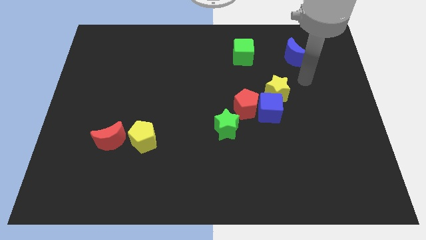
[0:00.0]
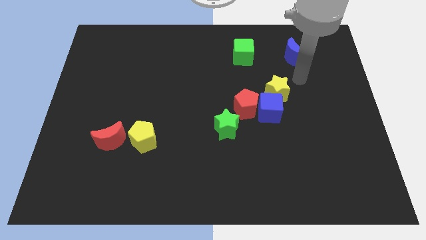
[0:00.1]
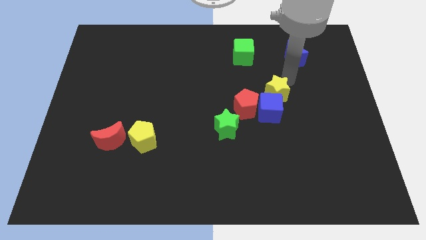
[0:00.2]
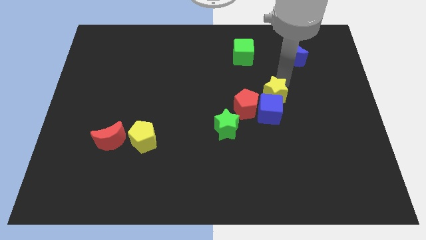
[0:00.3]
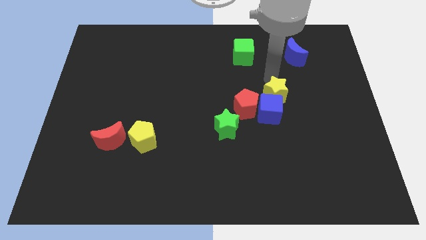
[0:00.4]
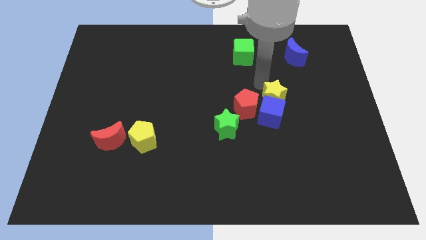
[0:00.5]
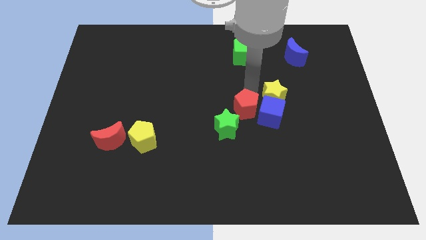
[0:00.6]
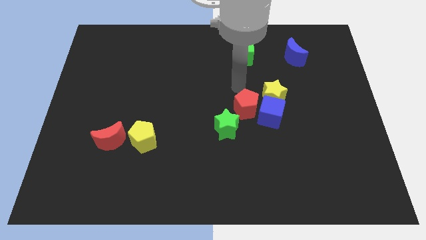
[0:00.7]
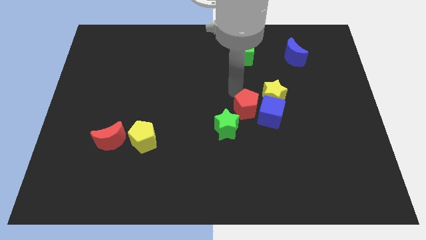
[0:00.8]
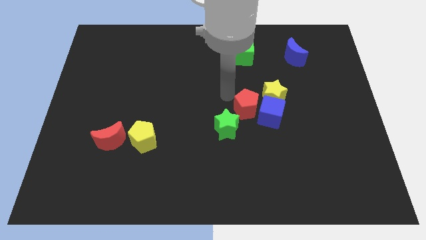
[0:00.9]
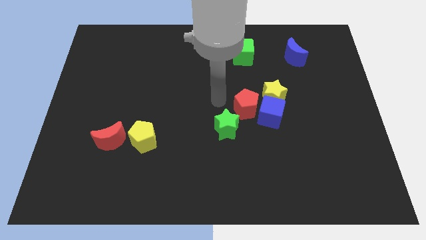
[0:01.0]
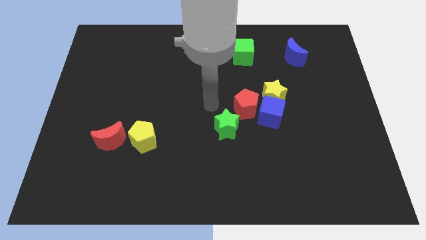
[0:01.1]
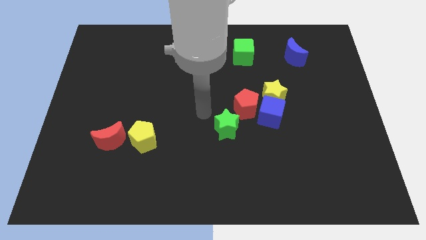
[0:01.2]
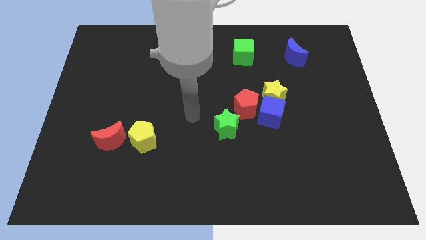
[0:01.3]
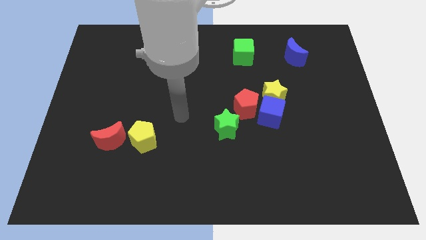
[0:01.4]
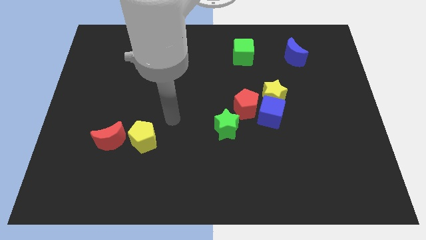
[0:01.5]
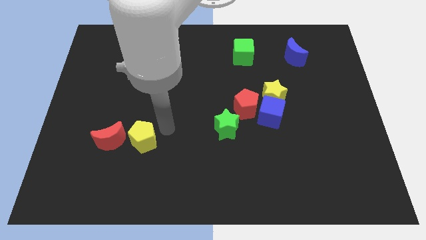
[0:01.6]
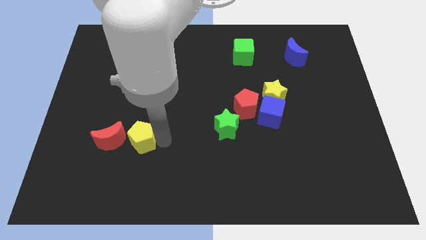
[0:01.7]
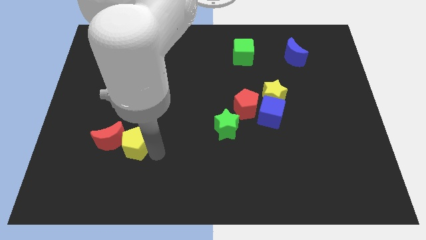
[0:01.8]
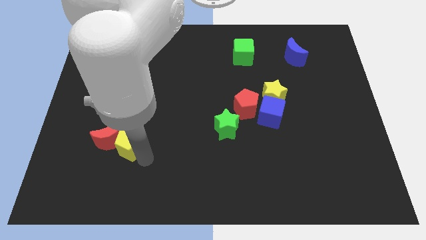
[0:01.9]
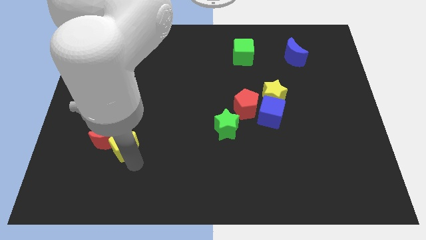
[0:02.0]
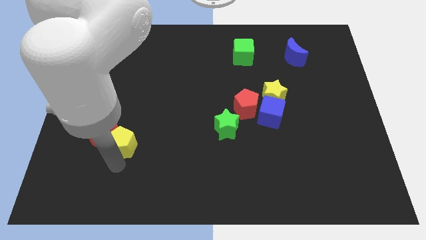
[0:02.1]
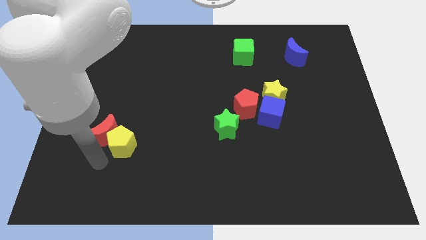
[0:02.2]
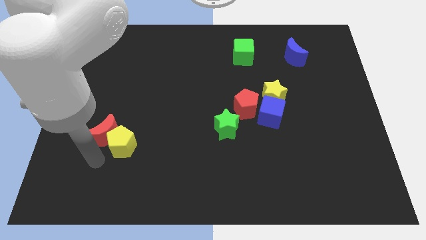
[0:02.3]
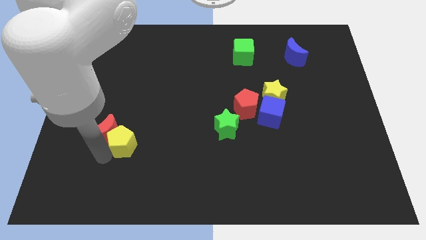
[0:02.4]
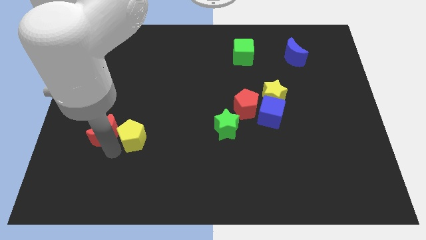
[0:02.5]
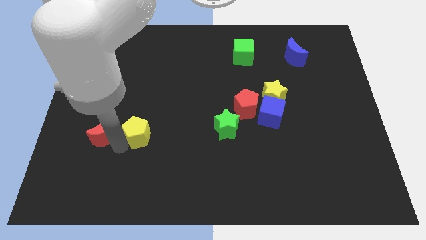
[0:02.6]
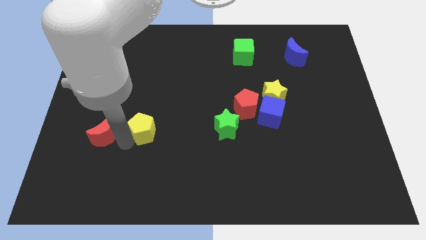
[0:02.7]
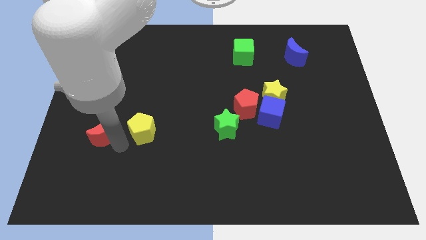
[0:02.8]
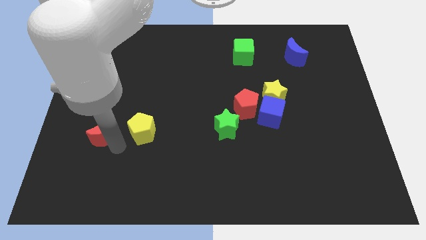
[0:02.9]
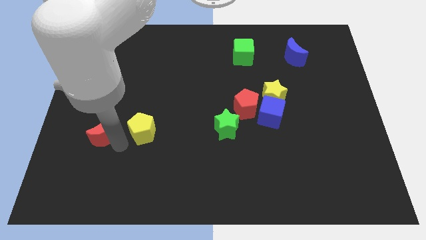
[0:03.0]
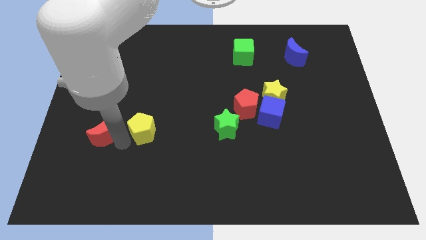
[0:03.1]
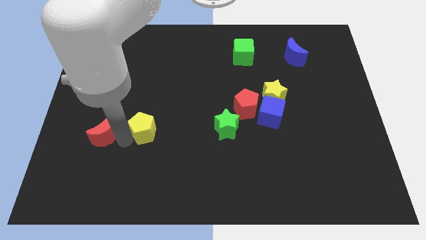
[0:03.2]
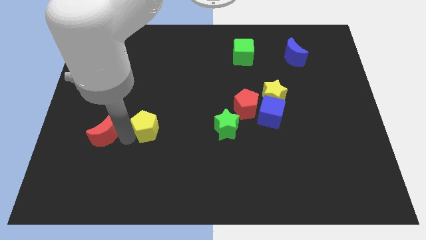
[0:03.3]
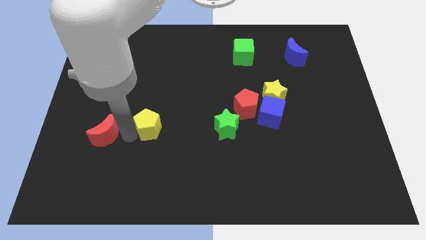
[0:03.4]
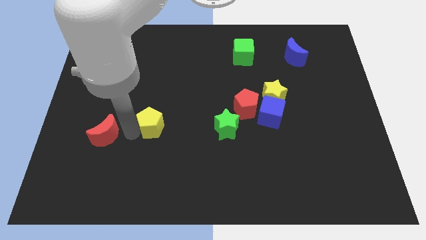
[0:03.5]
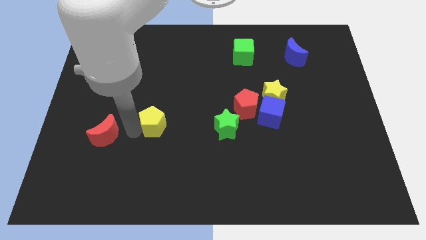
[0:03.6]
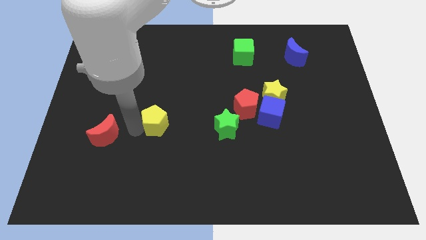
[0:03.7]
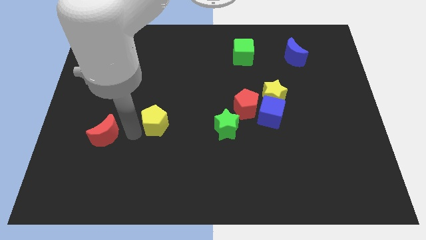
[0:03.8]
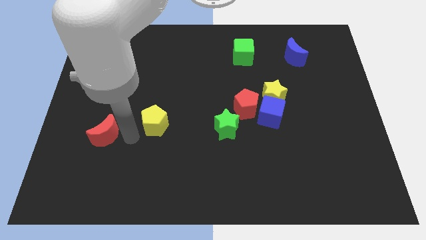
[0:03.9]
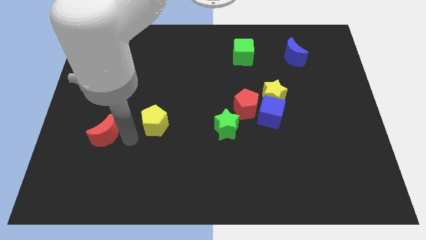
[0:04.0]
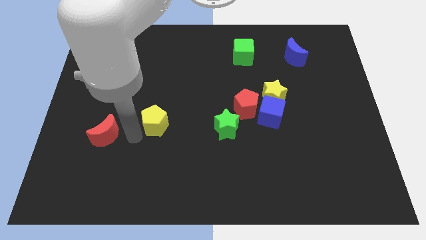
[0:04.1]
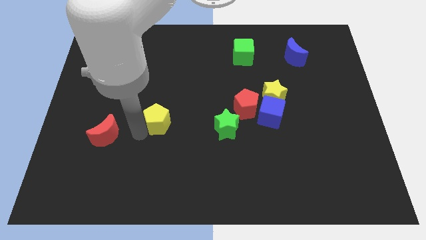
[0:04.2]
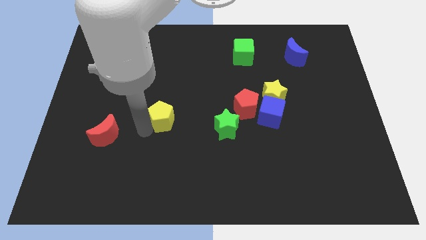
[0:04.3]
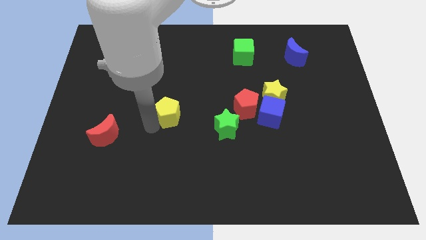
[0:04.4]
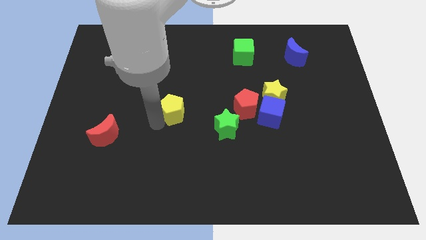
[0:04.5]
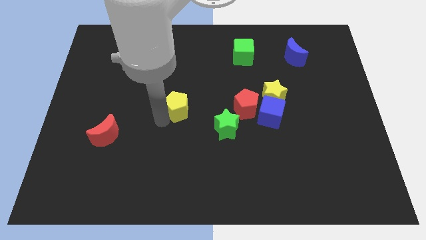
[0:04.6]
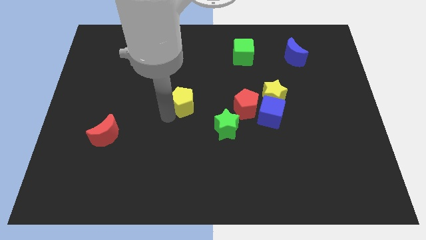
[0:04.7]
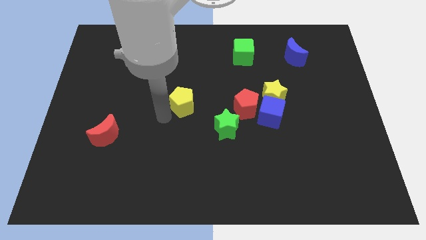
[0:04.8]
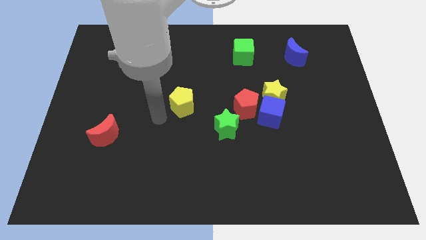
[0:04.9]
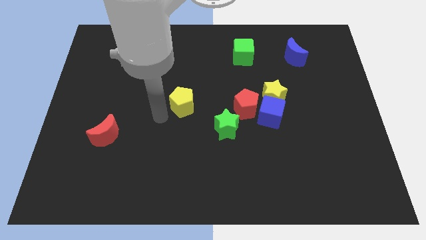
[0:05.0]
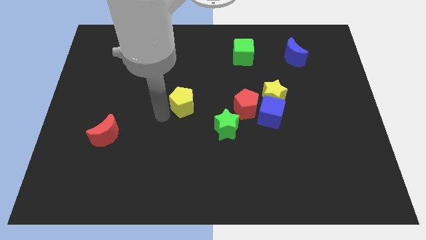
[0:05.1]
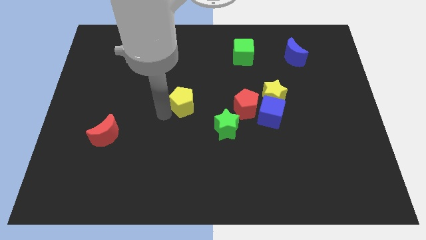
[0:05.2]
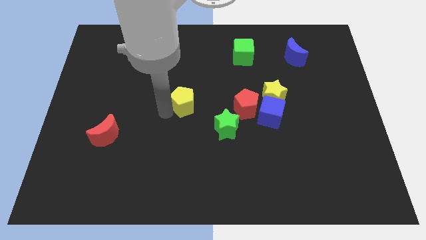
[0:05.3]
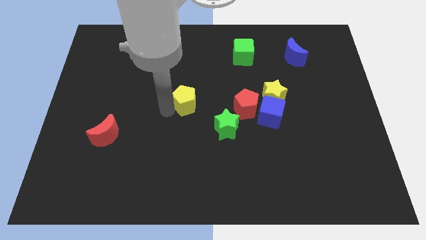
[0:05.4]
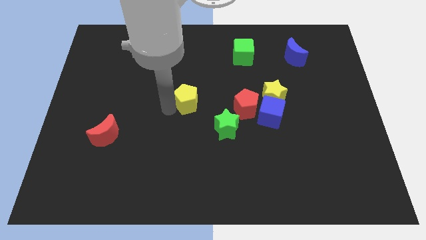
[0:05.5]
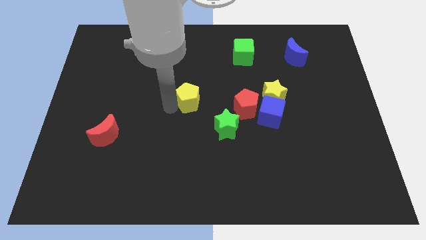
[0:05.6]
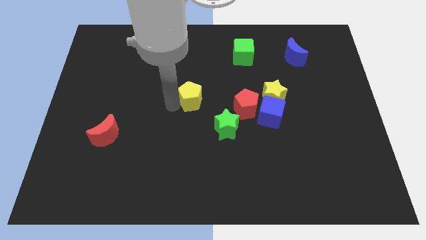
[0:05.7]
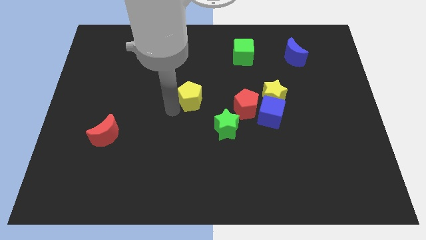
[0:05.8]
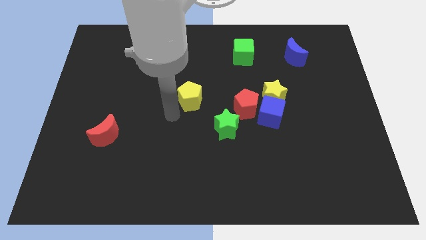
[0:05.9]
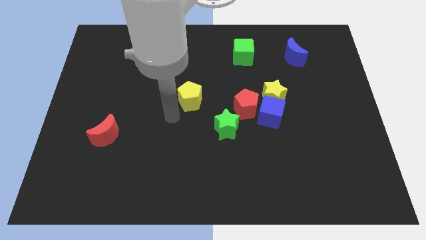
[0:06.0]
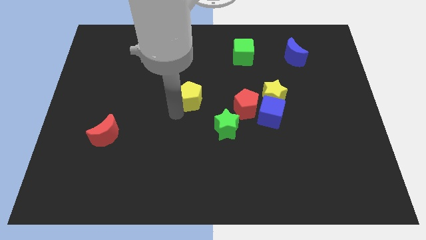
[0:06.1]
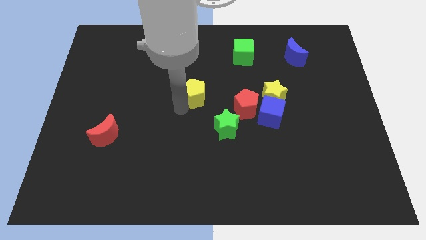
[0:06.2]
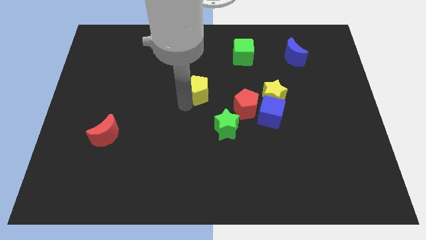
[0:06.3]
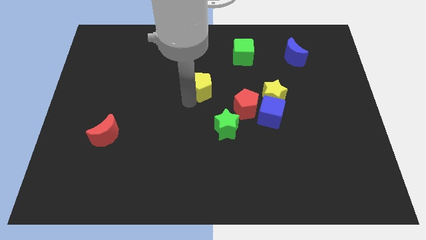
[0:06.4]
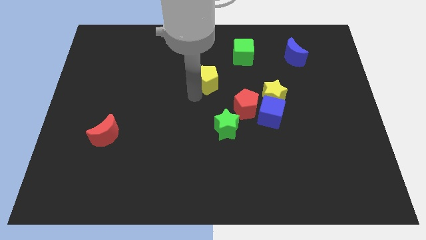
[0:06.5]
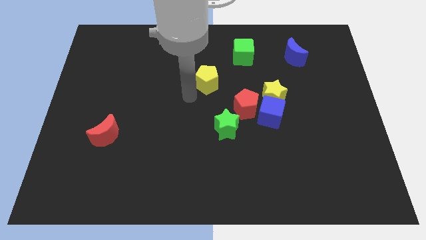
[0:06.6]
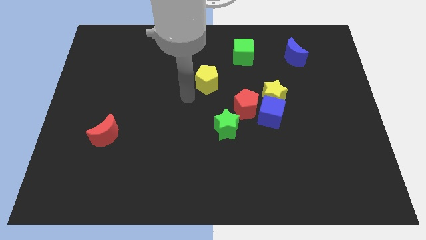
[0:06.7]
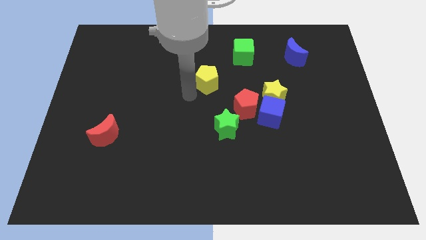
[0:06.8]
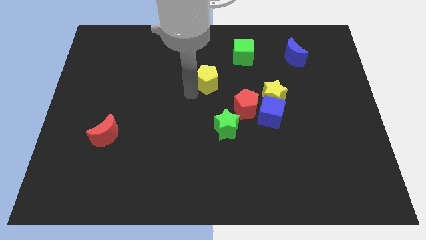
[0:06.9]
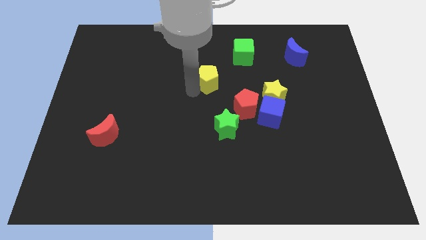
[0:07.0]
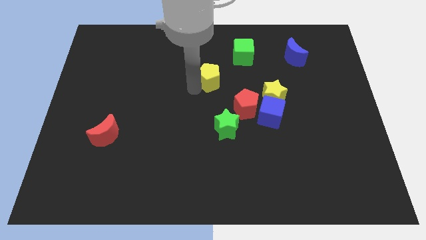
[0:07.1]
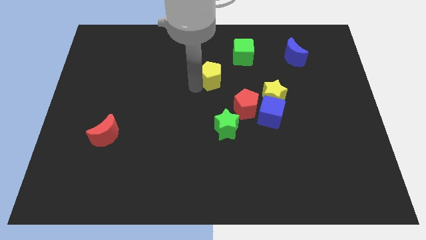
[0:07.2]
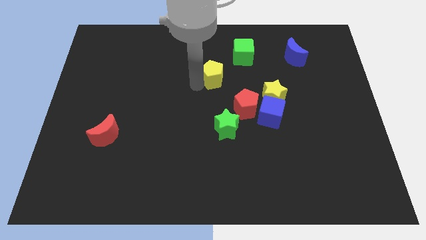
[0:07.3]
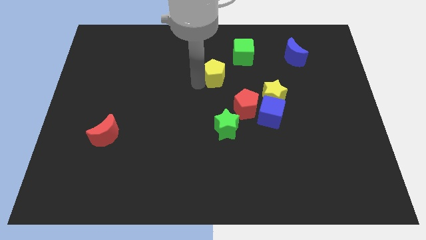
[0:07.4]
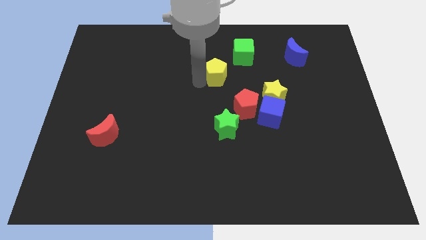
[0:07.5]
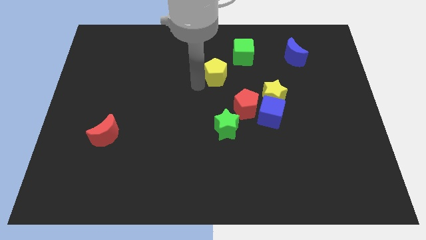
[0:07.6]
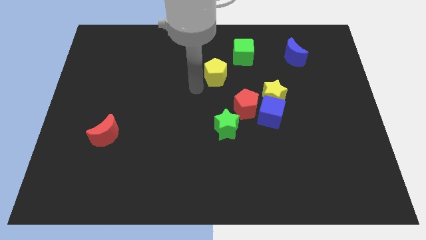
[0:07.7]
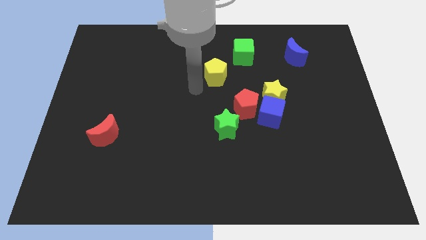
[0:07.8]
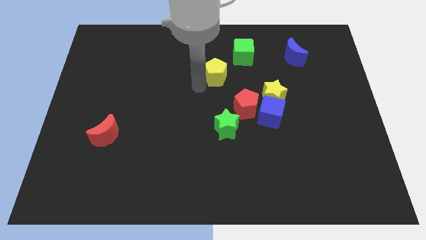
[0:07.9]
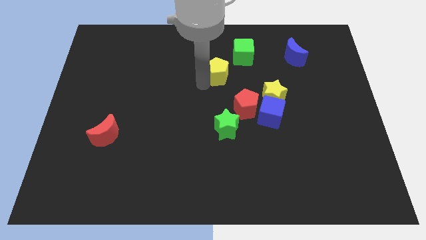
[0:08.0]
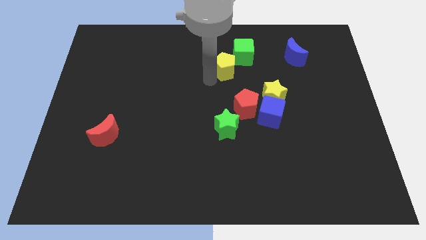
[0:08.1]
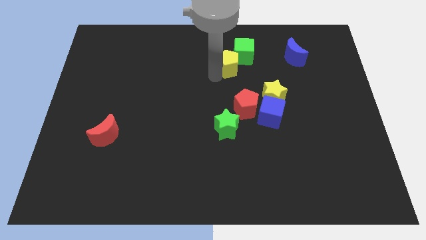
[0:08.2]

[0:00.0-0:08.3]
put the yellow pentagon towards the green cube

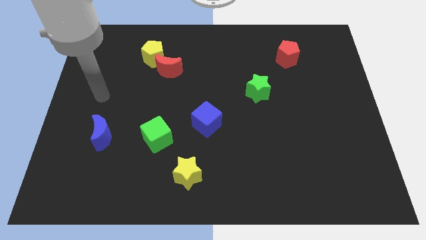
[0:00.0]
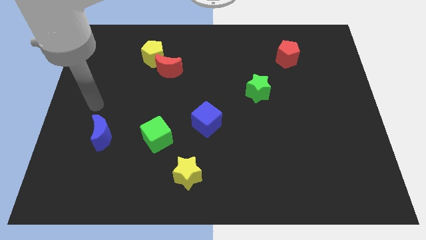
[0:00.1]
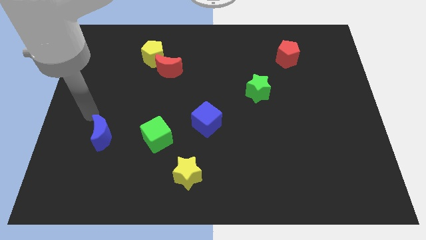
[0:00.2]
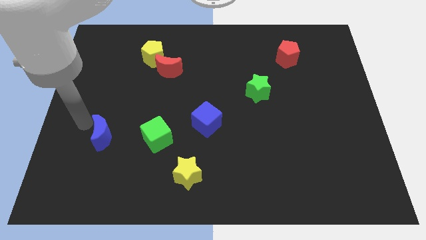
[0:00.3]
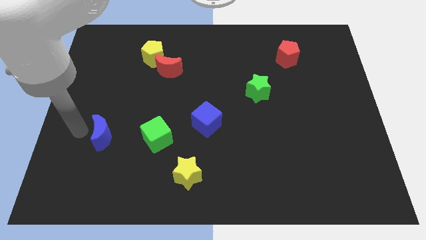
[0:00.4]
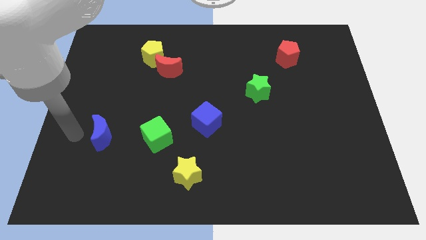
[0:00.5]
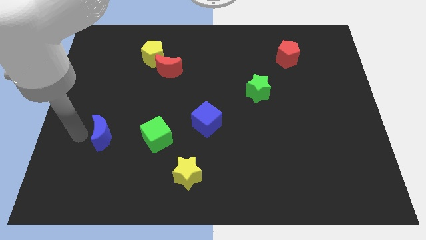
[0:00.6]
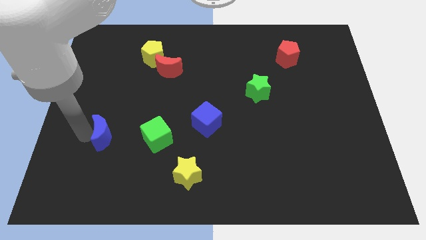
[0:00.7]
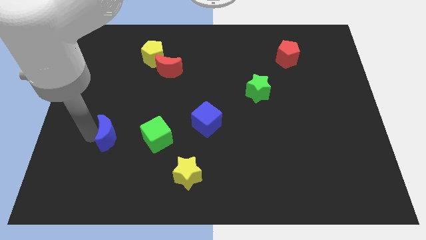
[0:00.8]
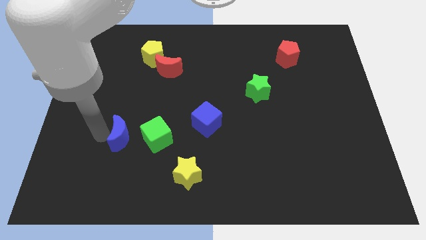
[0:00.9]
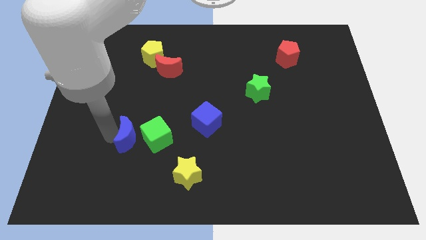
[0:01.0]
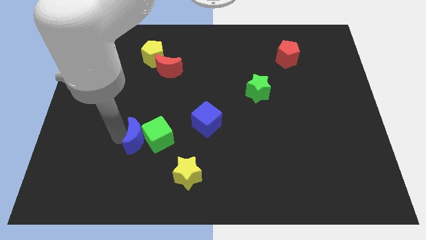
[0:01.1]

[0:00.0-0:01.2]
push the blue moon next to the green cube
